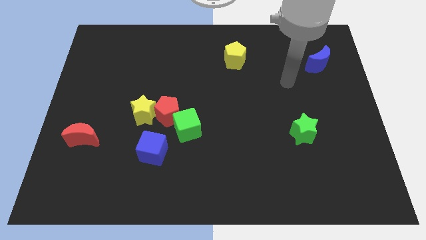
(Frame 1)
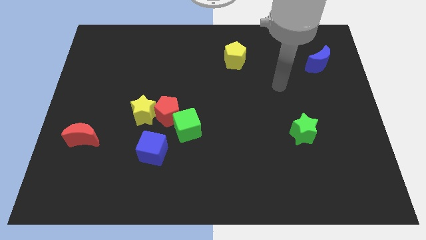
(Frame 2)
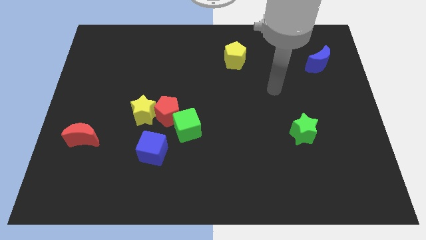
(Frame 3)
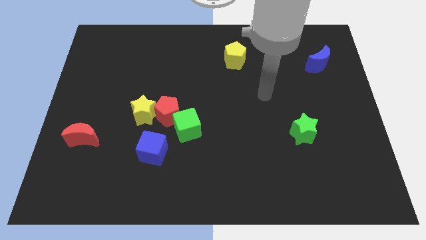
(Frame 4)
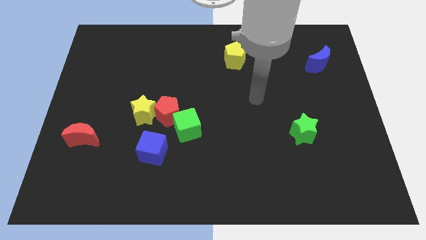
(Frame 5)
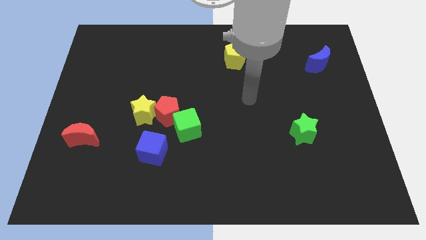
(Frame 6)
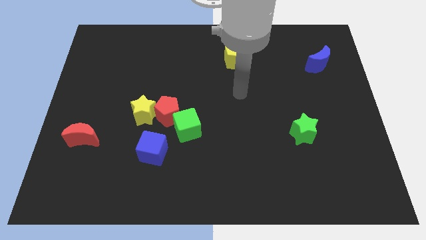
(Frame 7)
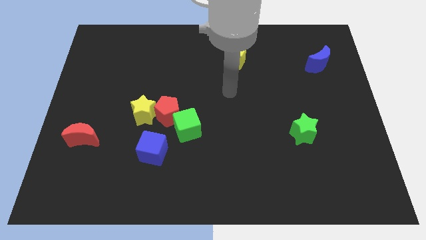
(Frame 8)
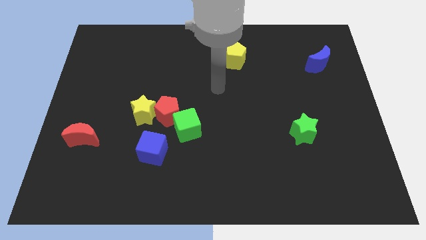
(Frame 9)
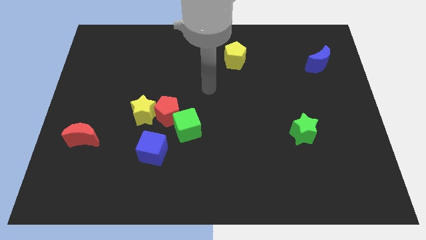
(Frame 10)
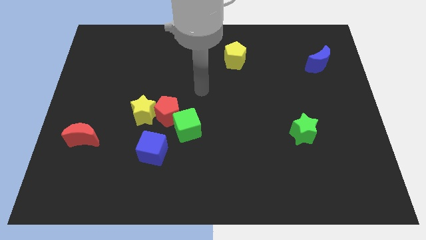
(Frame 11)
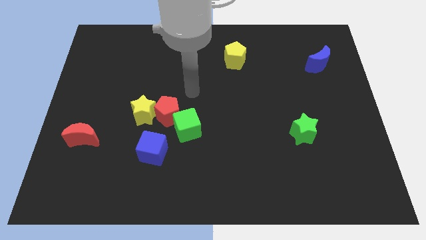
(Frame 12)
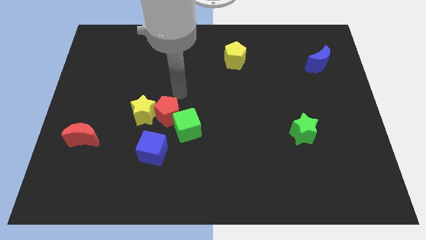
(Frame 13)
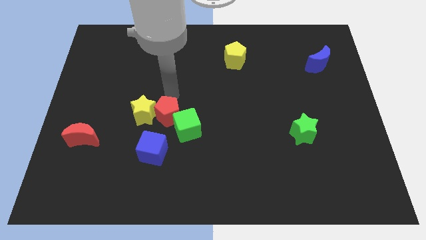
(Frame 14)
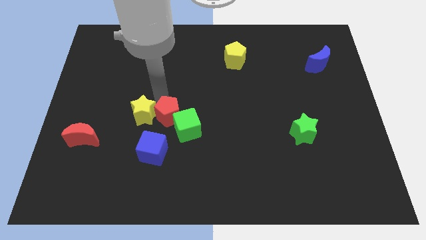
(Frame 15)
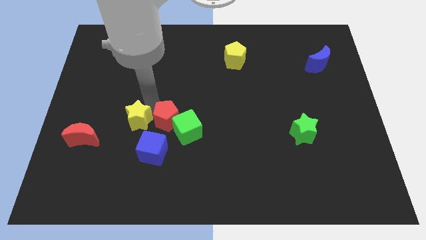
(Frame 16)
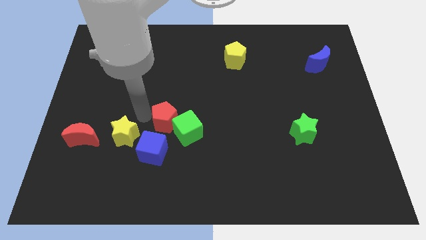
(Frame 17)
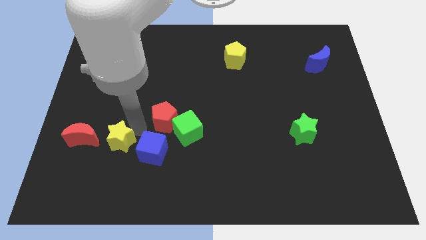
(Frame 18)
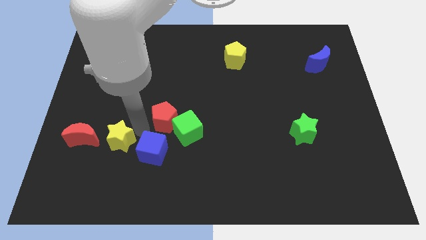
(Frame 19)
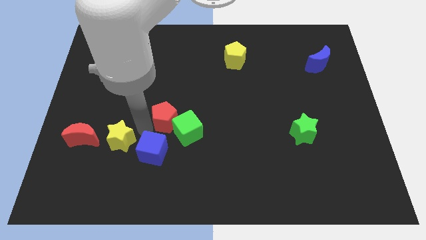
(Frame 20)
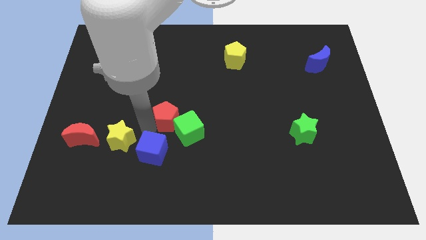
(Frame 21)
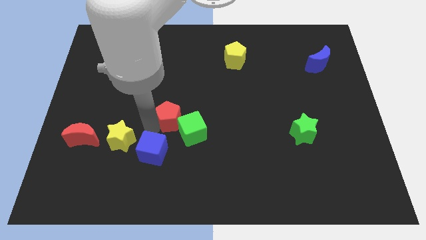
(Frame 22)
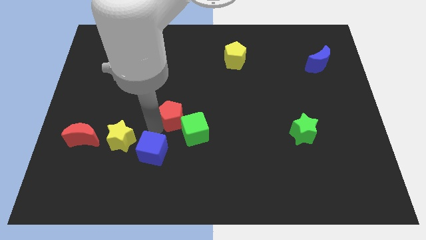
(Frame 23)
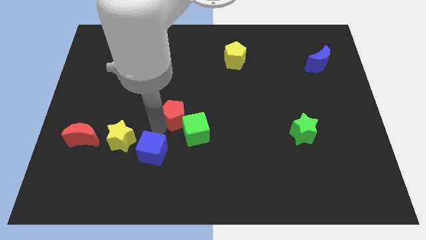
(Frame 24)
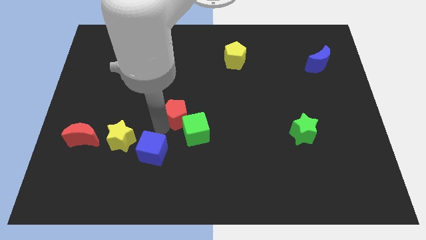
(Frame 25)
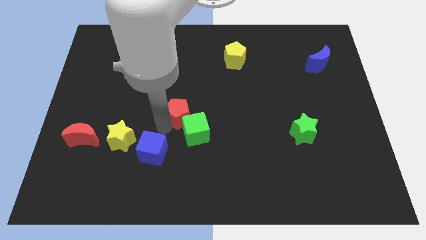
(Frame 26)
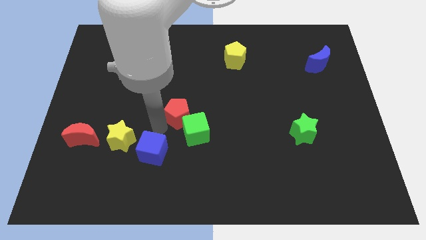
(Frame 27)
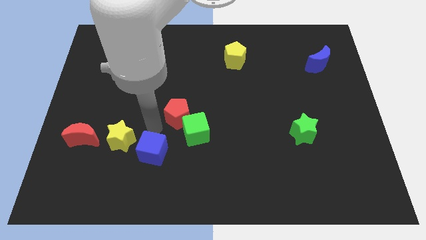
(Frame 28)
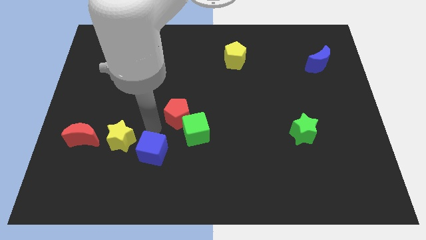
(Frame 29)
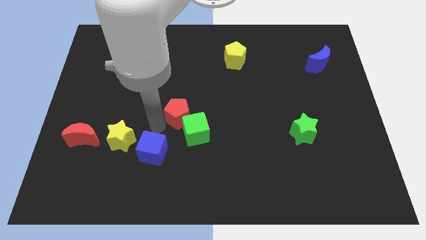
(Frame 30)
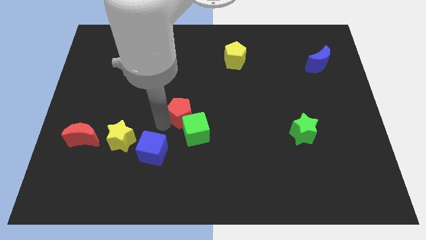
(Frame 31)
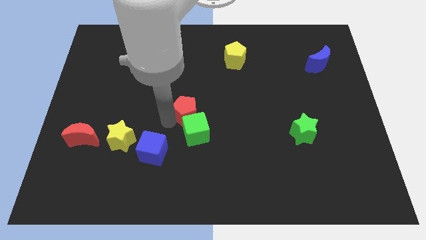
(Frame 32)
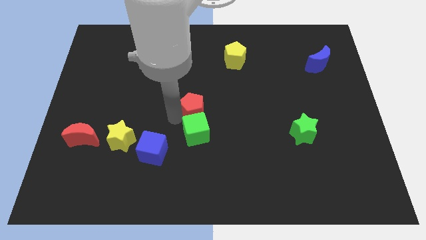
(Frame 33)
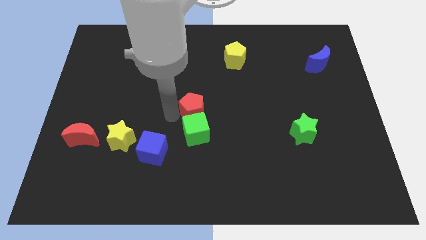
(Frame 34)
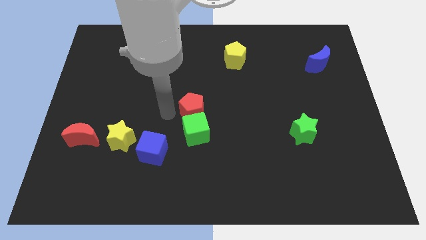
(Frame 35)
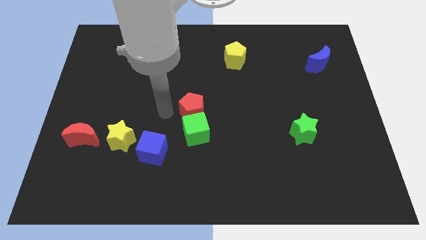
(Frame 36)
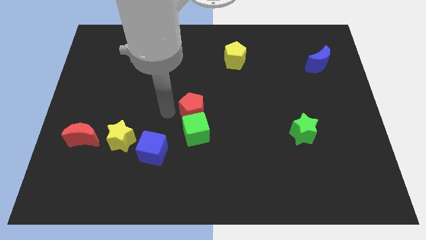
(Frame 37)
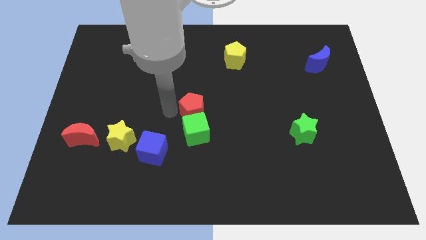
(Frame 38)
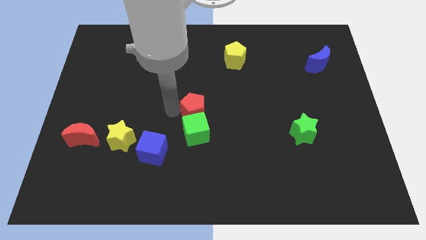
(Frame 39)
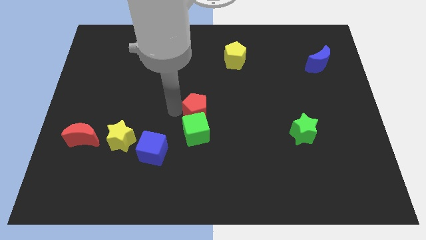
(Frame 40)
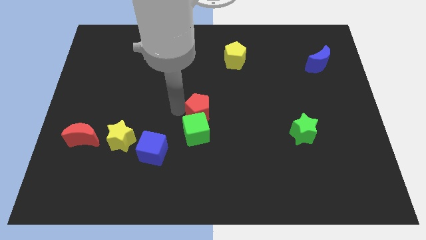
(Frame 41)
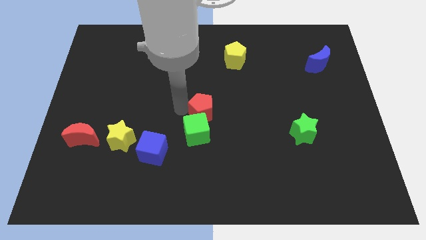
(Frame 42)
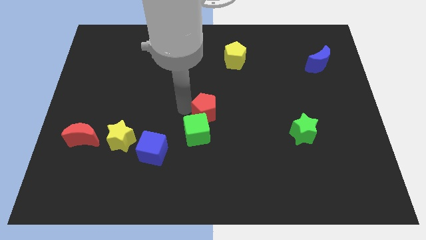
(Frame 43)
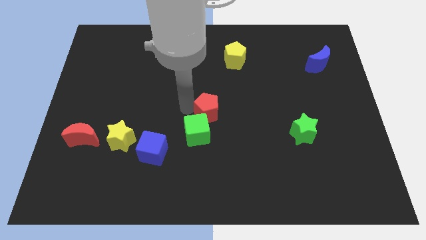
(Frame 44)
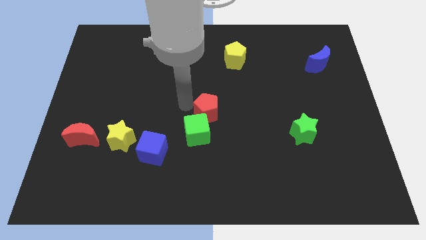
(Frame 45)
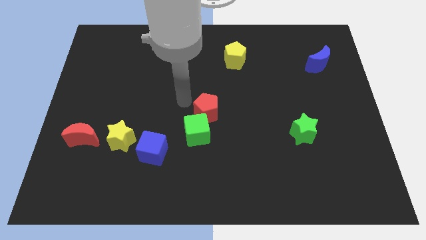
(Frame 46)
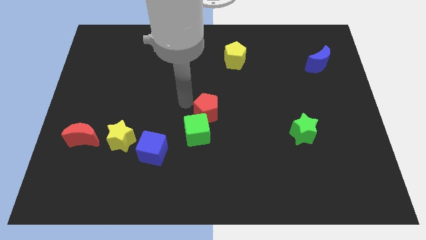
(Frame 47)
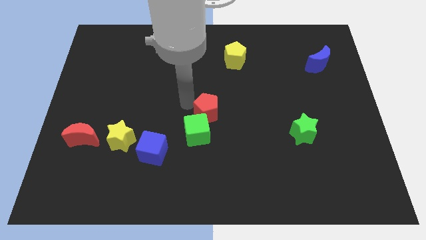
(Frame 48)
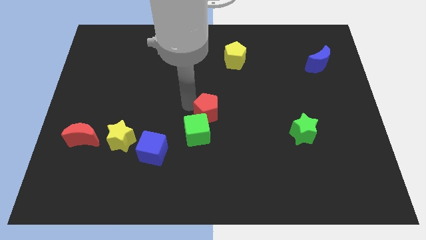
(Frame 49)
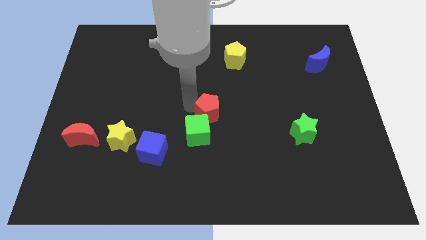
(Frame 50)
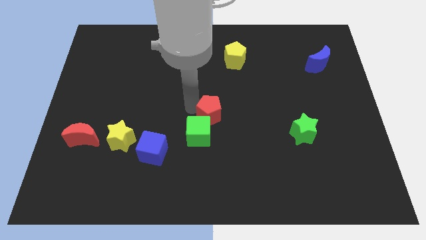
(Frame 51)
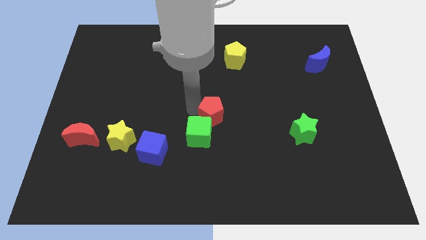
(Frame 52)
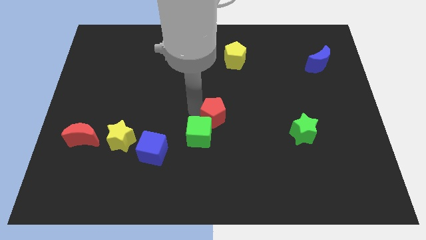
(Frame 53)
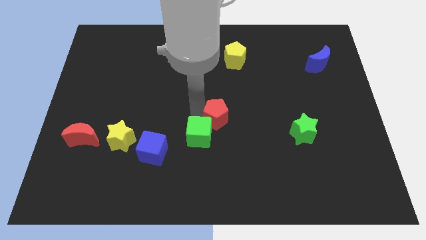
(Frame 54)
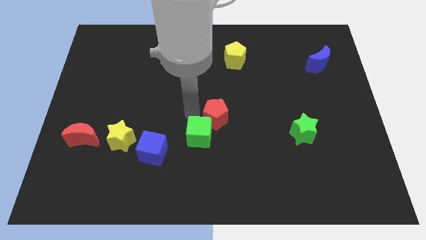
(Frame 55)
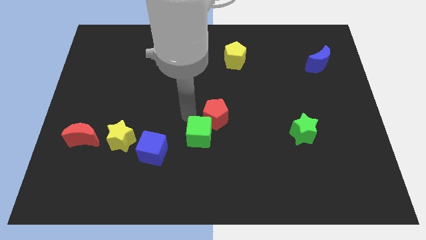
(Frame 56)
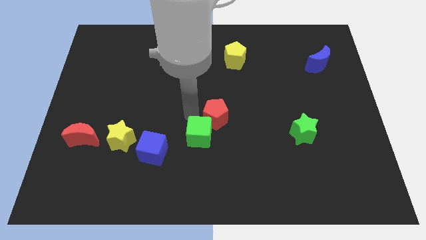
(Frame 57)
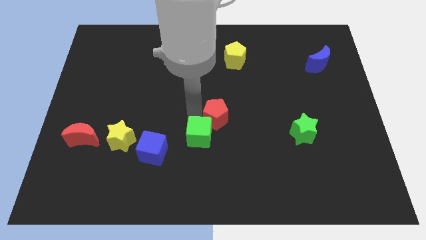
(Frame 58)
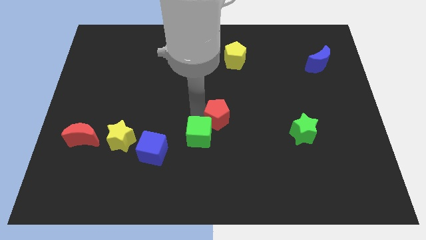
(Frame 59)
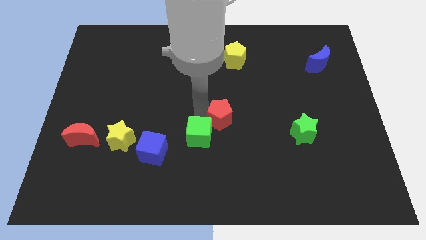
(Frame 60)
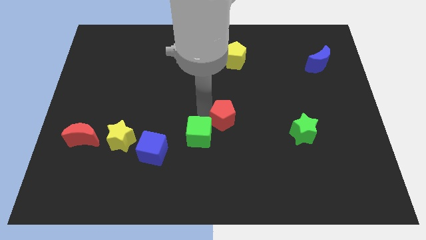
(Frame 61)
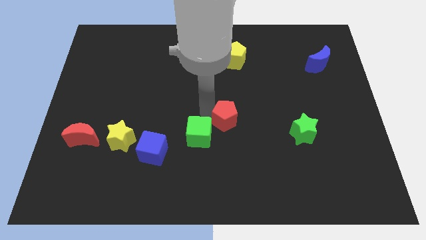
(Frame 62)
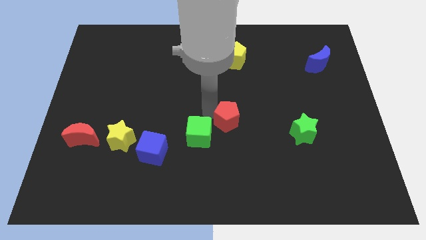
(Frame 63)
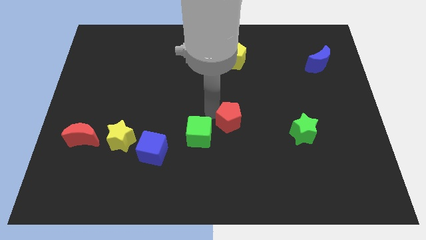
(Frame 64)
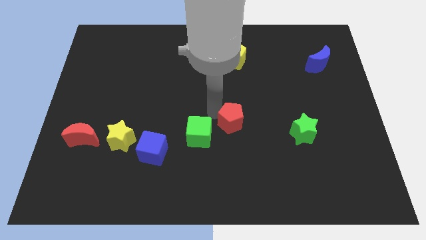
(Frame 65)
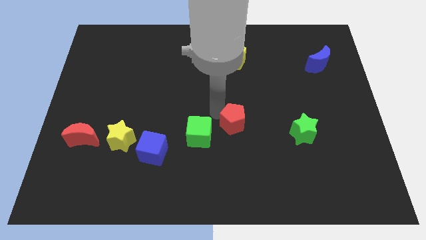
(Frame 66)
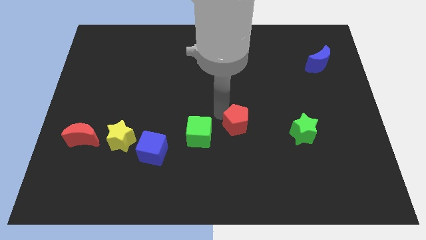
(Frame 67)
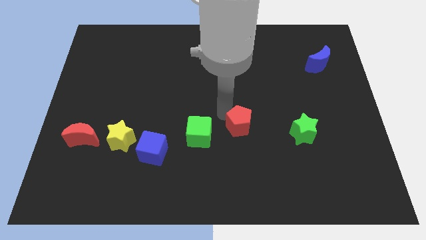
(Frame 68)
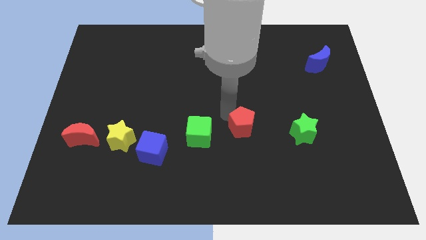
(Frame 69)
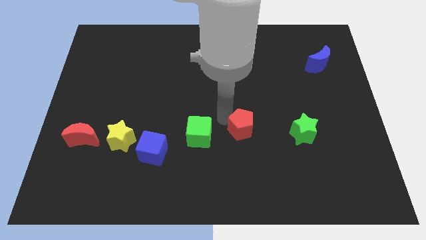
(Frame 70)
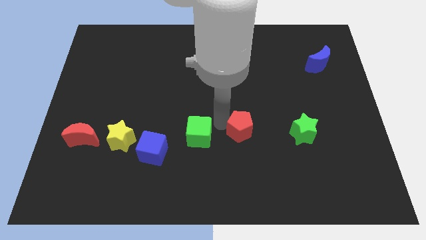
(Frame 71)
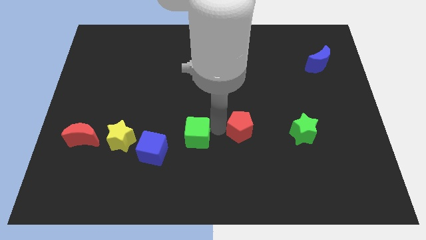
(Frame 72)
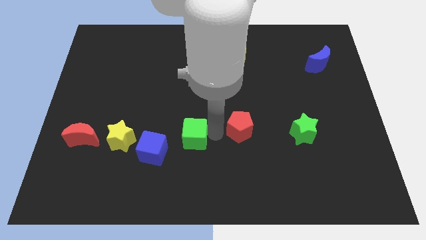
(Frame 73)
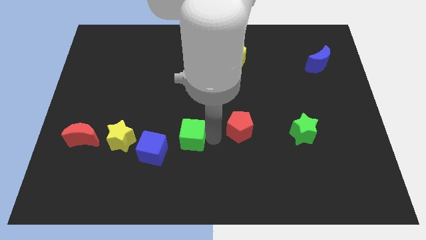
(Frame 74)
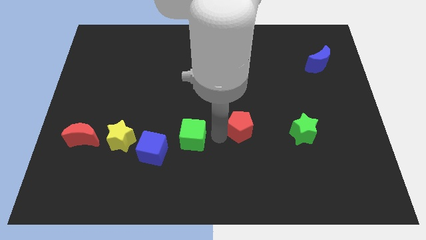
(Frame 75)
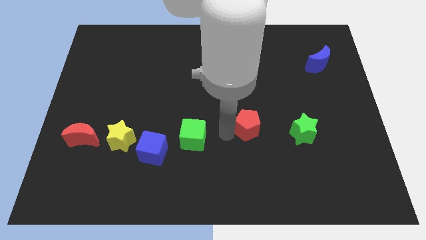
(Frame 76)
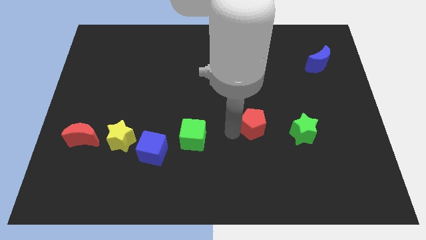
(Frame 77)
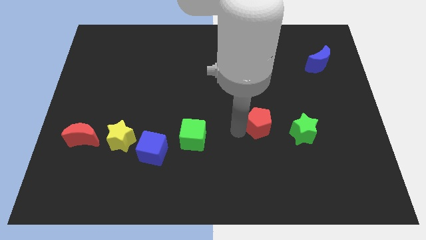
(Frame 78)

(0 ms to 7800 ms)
push the red pentagon to the right

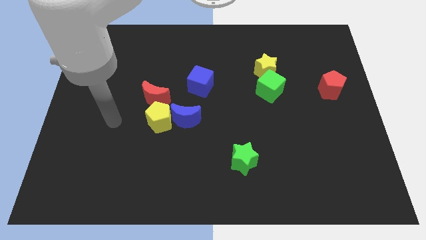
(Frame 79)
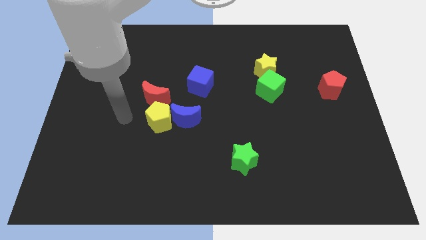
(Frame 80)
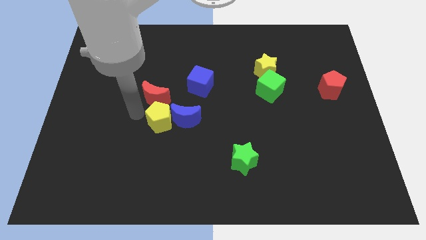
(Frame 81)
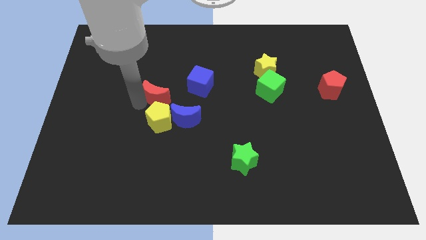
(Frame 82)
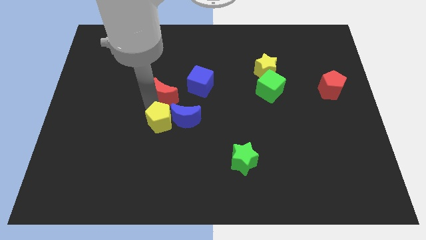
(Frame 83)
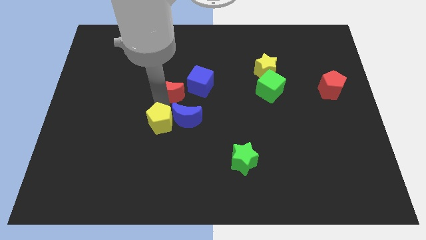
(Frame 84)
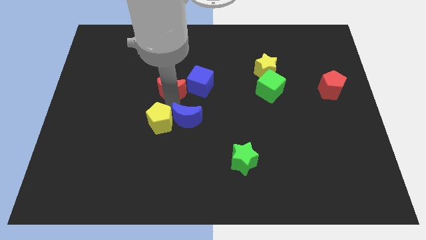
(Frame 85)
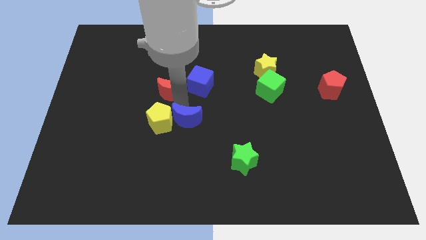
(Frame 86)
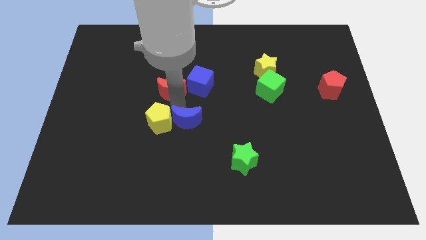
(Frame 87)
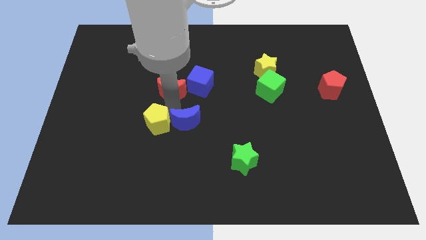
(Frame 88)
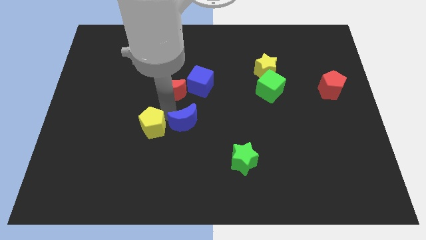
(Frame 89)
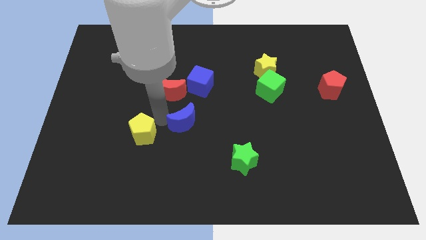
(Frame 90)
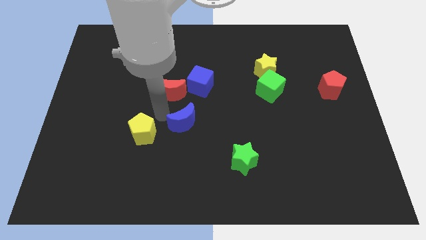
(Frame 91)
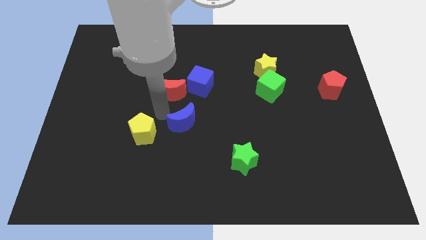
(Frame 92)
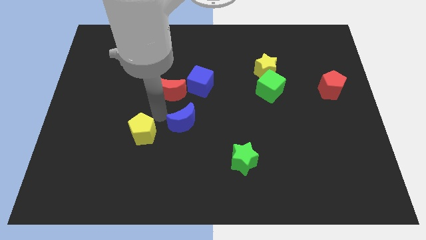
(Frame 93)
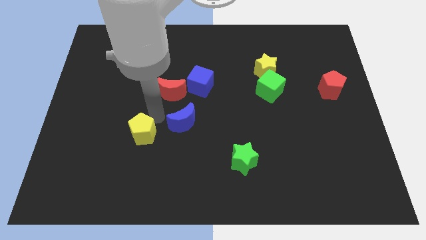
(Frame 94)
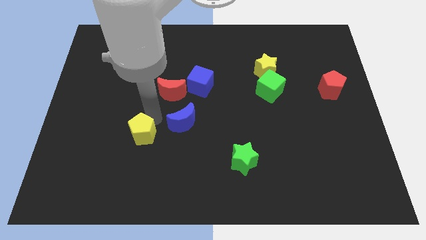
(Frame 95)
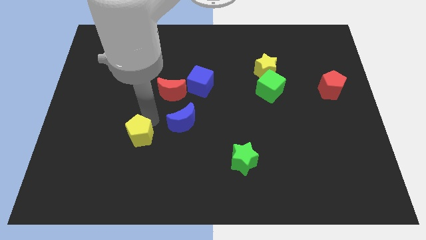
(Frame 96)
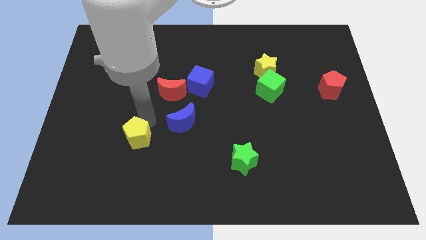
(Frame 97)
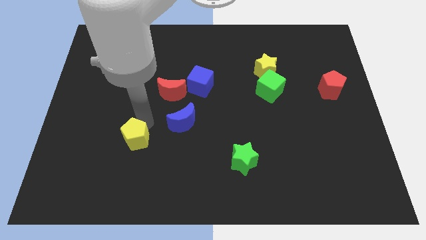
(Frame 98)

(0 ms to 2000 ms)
push the yellow pentagon a little downwards and then to the left
